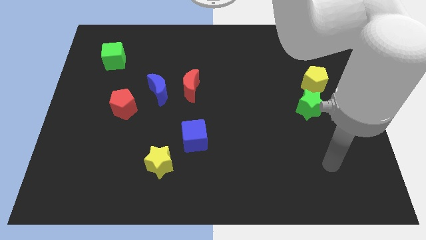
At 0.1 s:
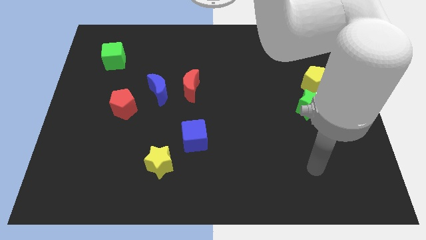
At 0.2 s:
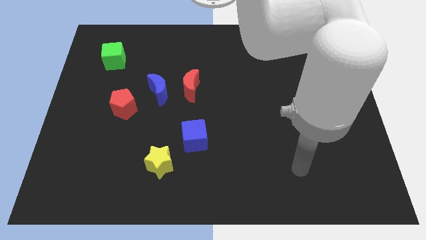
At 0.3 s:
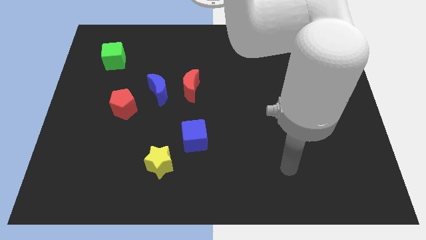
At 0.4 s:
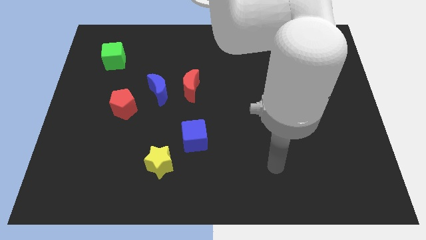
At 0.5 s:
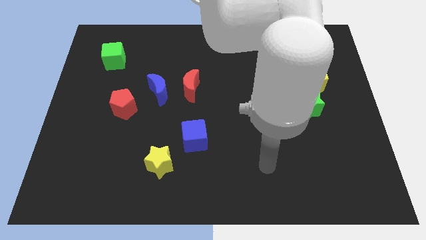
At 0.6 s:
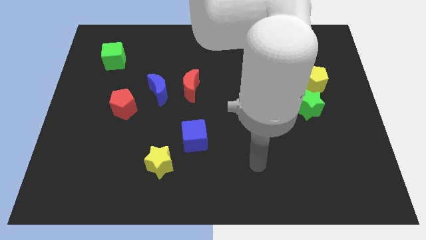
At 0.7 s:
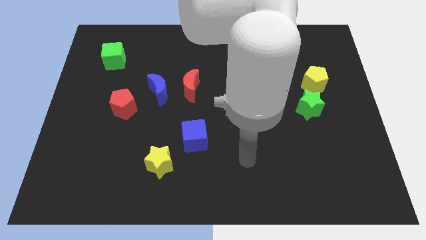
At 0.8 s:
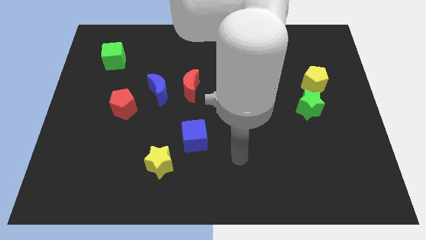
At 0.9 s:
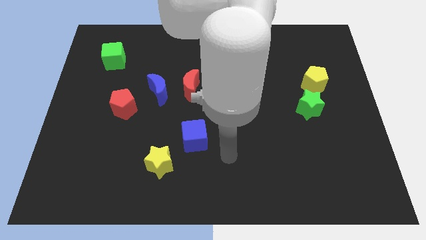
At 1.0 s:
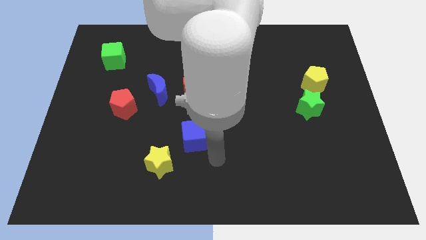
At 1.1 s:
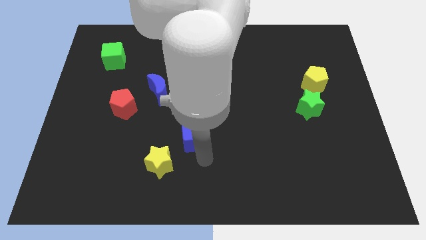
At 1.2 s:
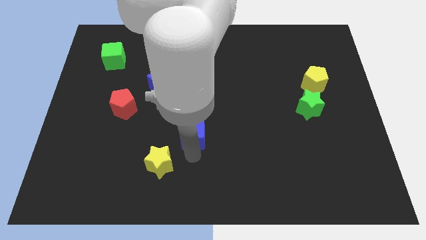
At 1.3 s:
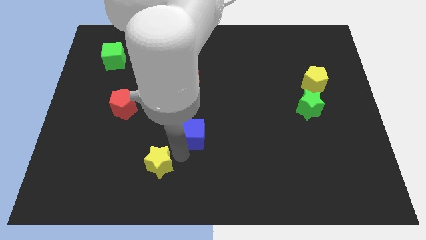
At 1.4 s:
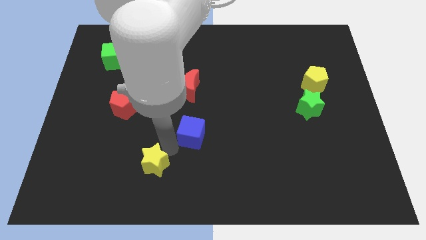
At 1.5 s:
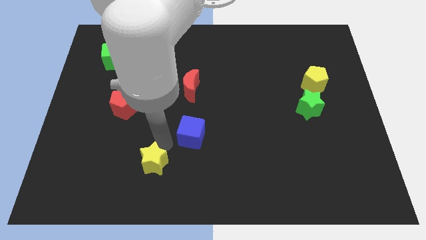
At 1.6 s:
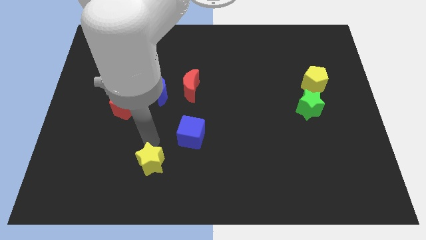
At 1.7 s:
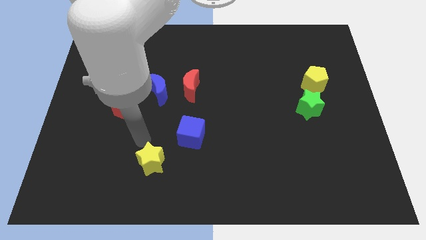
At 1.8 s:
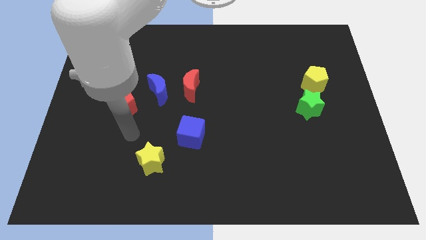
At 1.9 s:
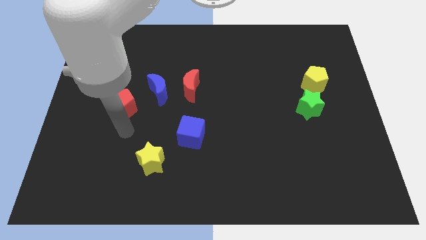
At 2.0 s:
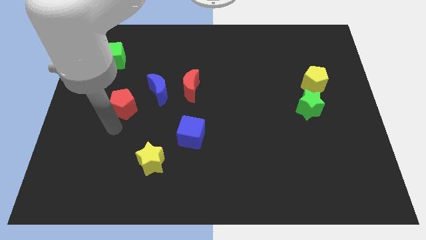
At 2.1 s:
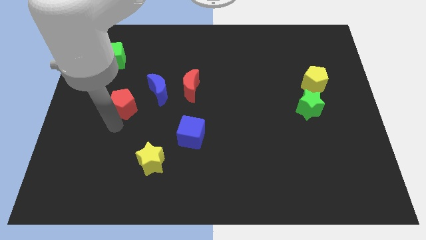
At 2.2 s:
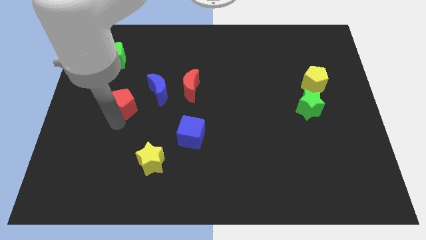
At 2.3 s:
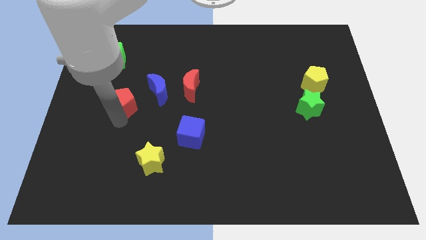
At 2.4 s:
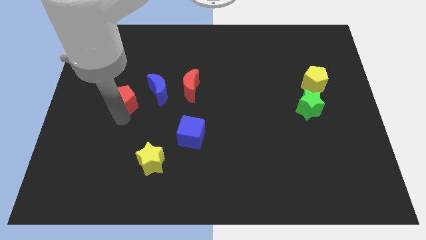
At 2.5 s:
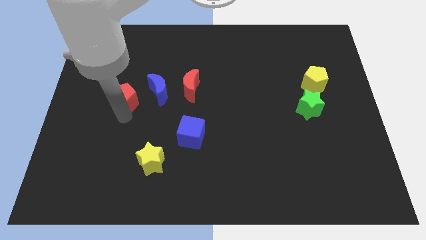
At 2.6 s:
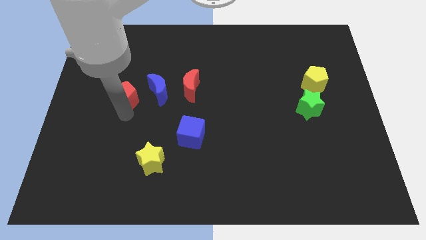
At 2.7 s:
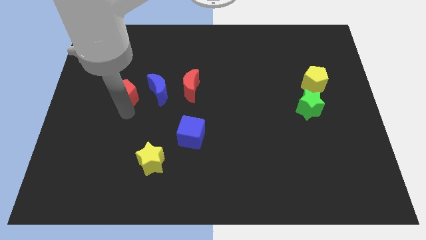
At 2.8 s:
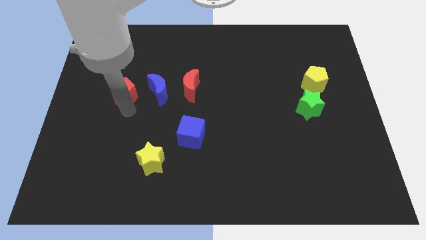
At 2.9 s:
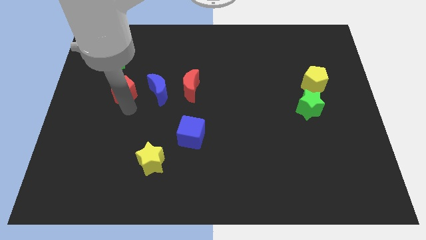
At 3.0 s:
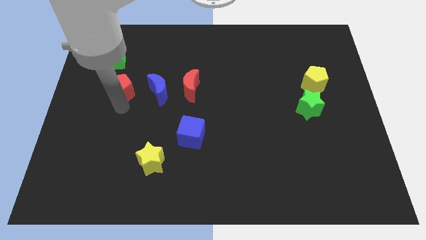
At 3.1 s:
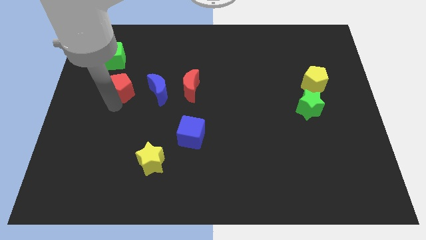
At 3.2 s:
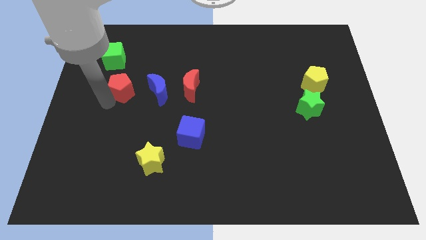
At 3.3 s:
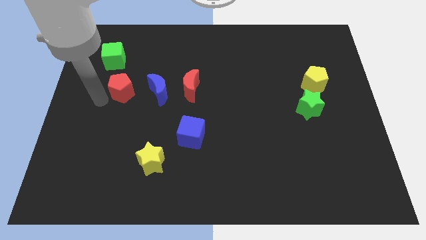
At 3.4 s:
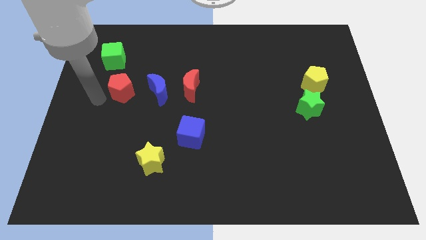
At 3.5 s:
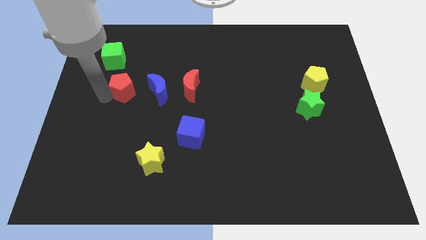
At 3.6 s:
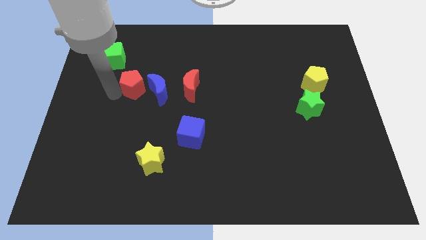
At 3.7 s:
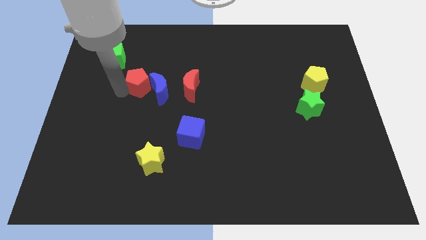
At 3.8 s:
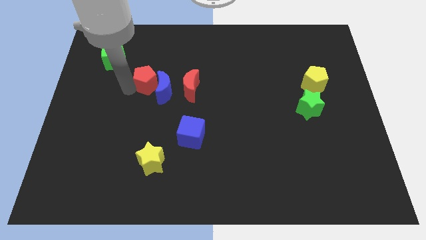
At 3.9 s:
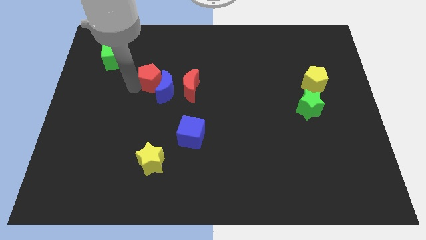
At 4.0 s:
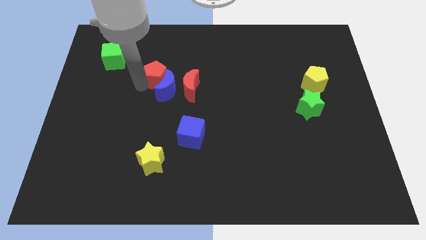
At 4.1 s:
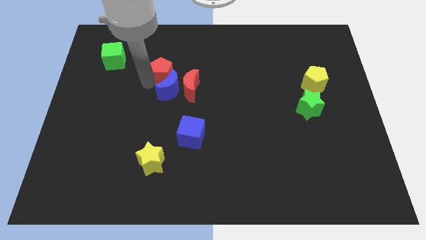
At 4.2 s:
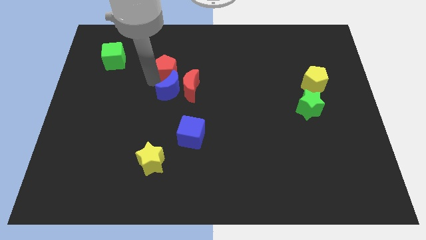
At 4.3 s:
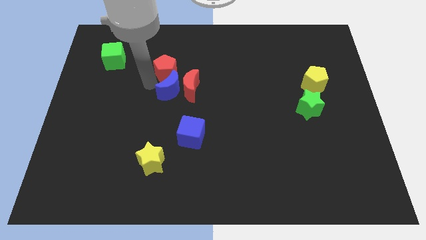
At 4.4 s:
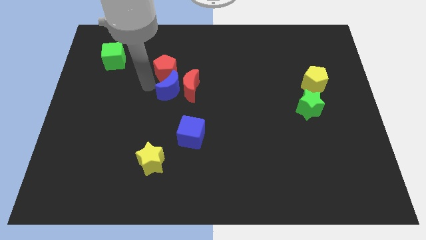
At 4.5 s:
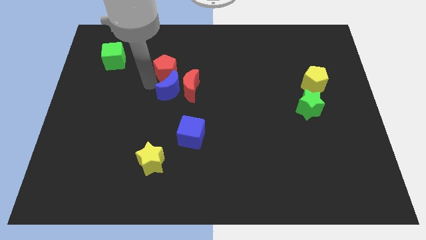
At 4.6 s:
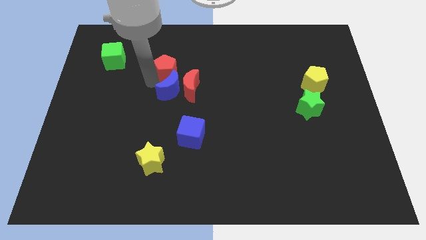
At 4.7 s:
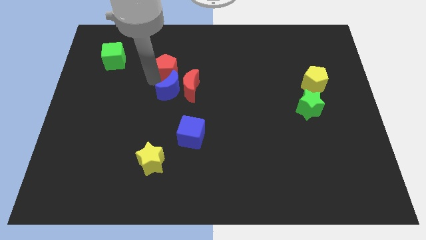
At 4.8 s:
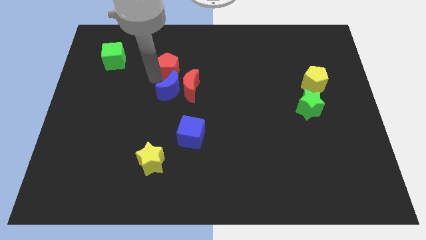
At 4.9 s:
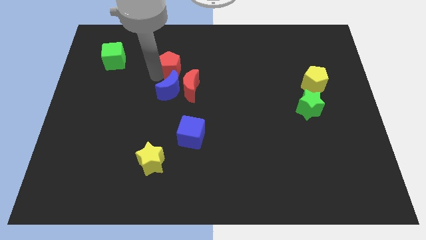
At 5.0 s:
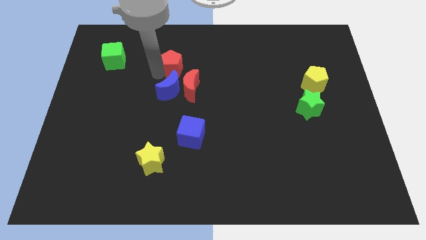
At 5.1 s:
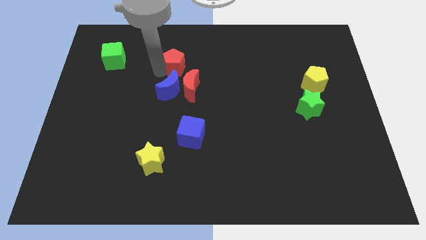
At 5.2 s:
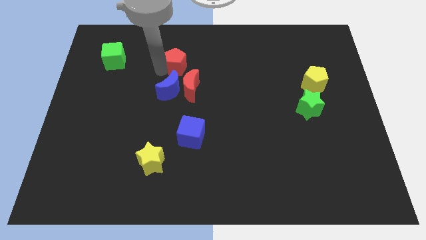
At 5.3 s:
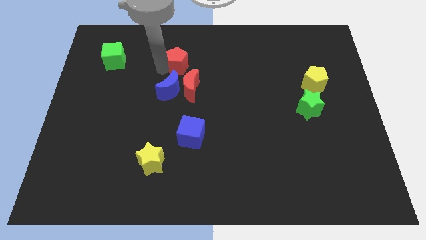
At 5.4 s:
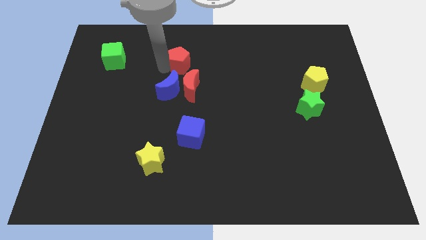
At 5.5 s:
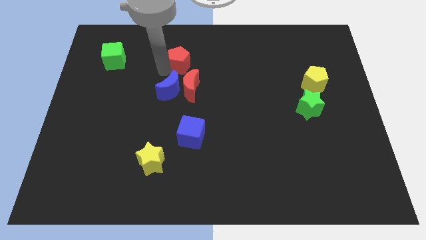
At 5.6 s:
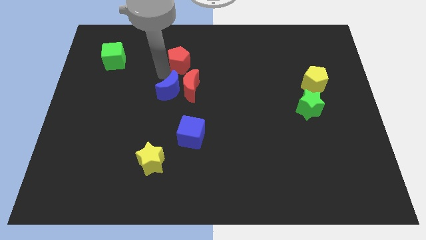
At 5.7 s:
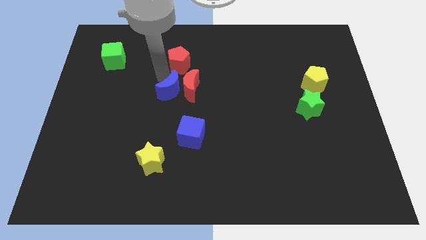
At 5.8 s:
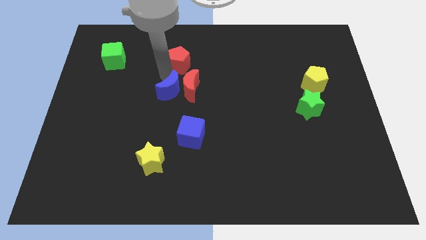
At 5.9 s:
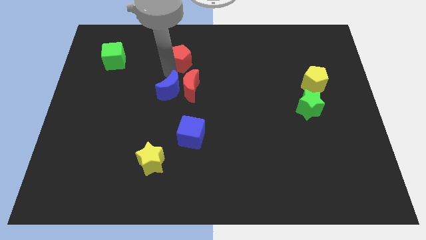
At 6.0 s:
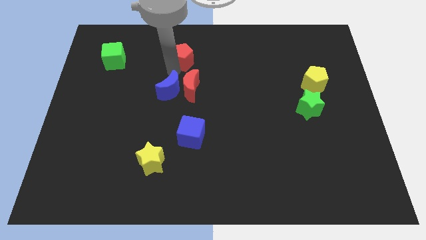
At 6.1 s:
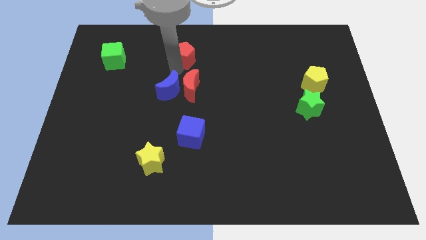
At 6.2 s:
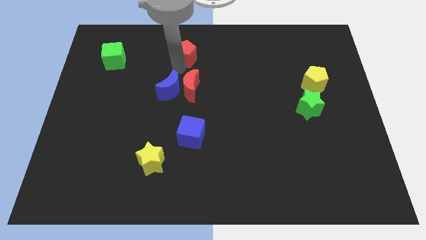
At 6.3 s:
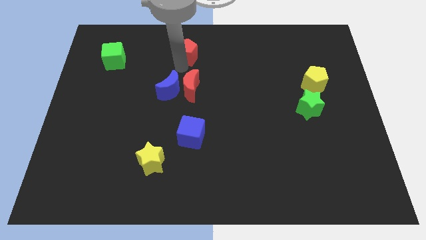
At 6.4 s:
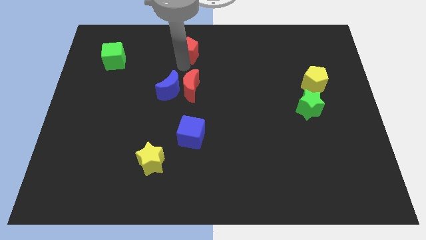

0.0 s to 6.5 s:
push the red pentagon to the top
